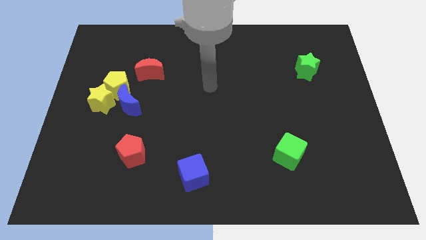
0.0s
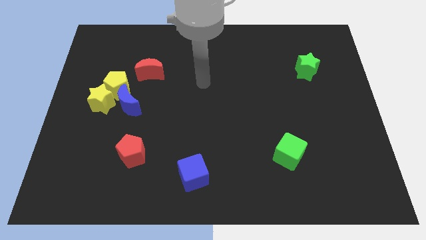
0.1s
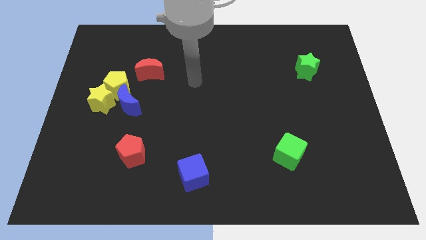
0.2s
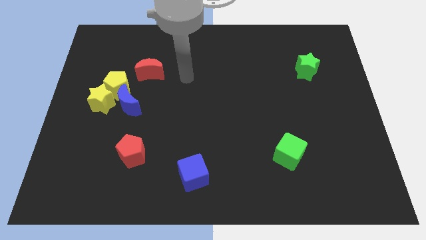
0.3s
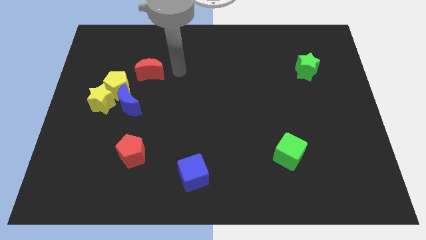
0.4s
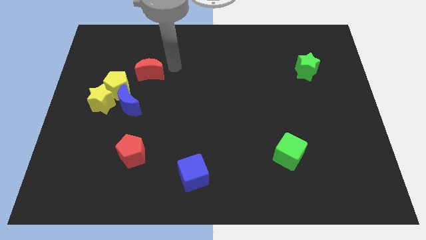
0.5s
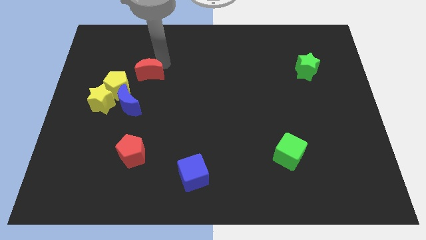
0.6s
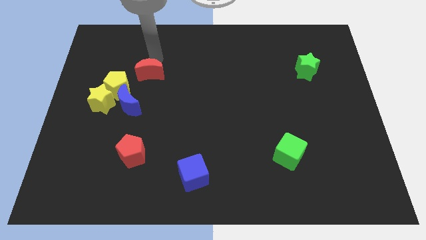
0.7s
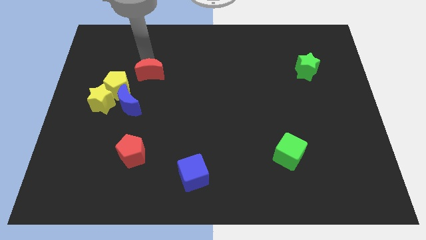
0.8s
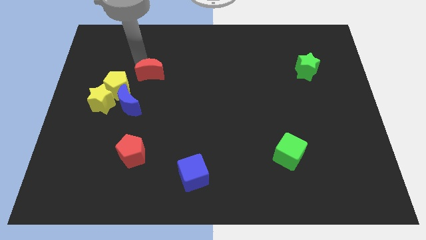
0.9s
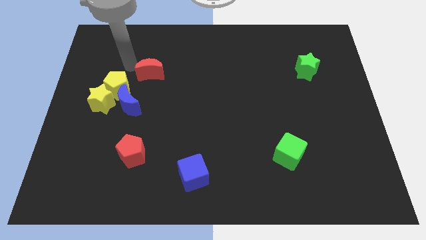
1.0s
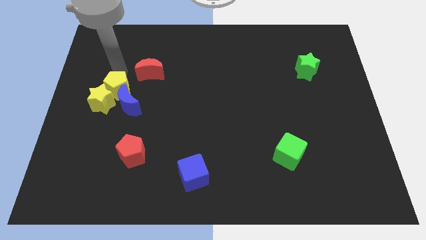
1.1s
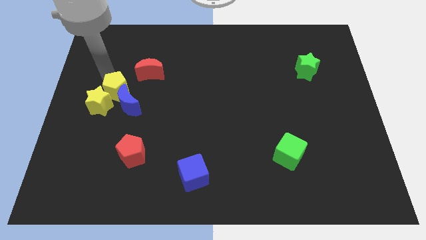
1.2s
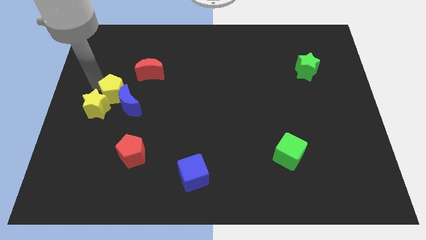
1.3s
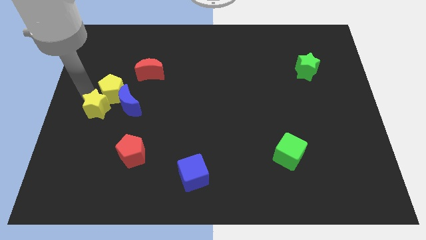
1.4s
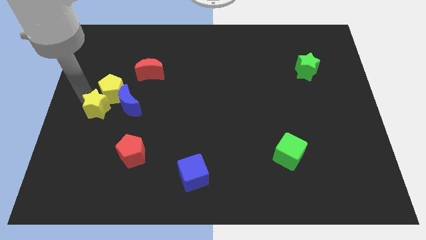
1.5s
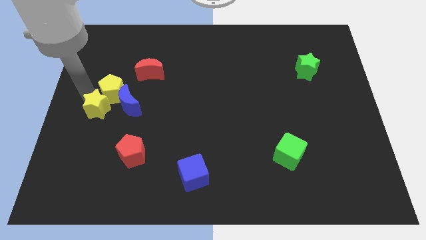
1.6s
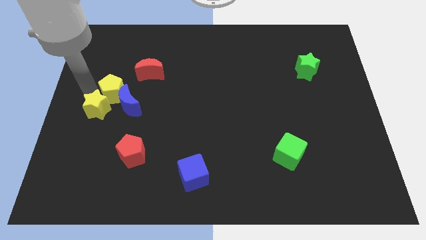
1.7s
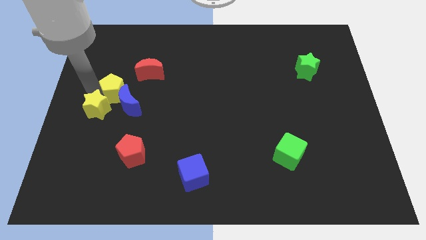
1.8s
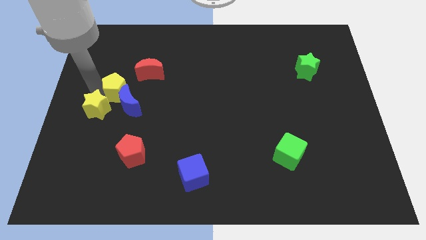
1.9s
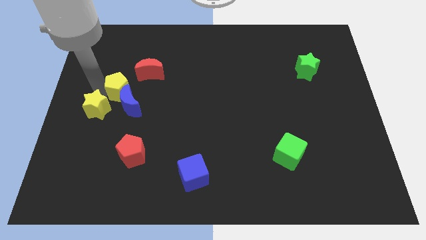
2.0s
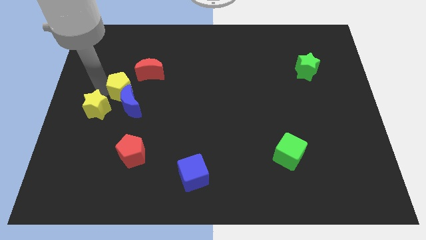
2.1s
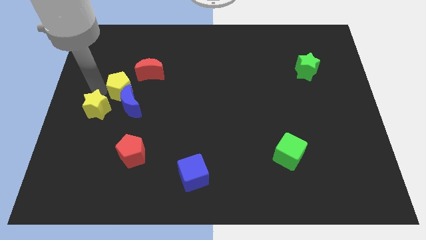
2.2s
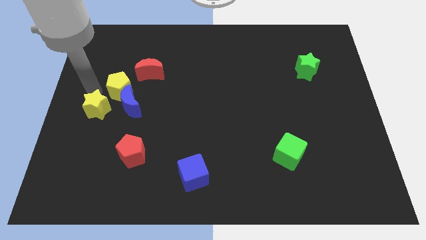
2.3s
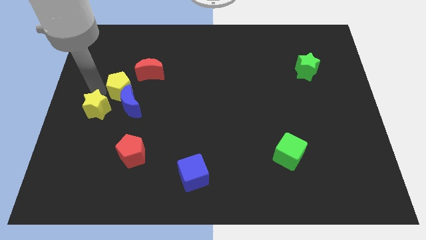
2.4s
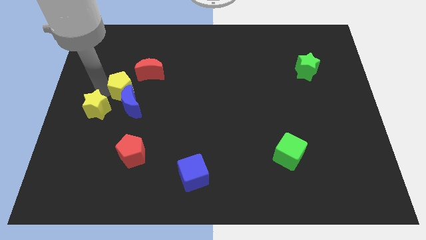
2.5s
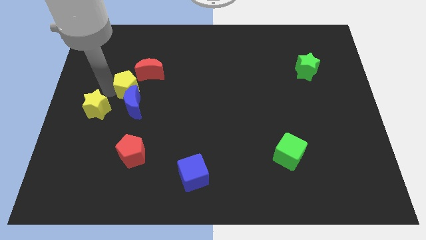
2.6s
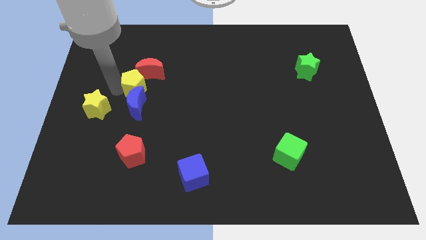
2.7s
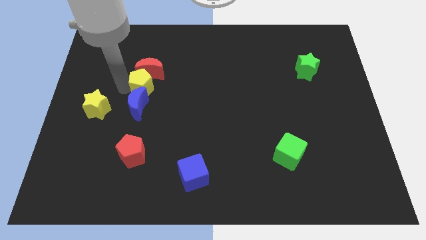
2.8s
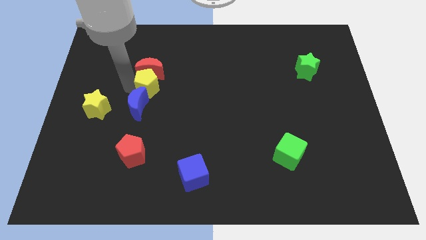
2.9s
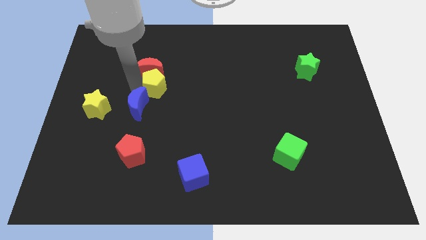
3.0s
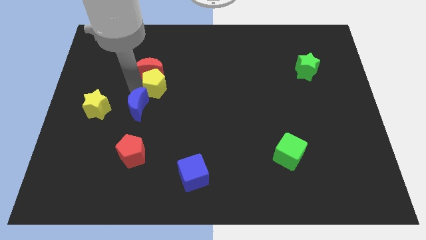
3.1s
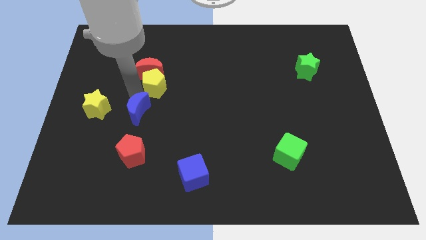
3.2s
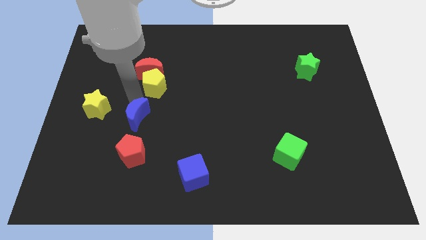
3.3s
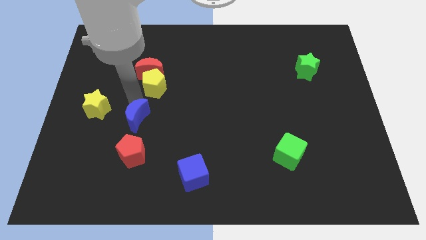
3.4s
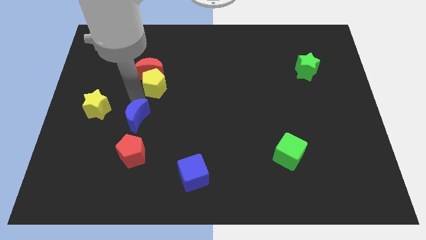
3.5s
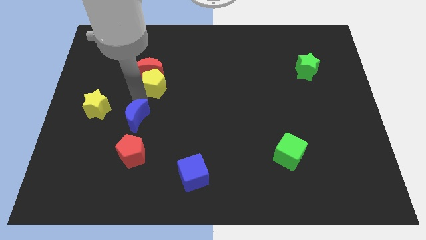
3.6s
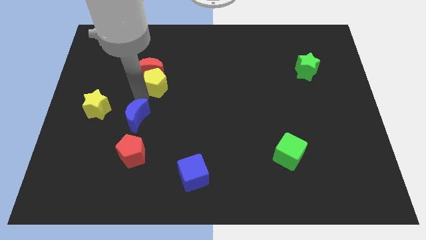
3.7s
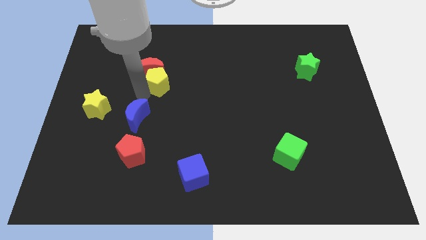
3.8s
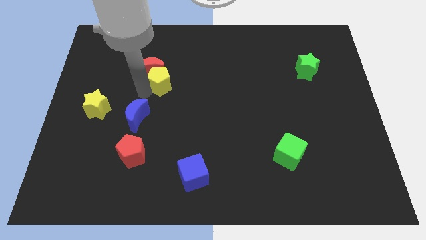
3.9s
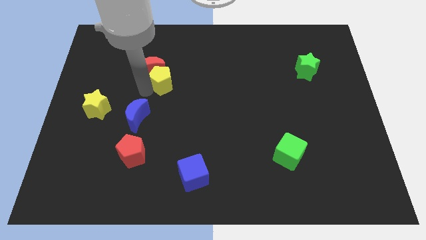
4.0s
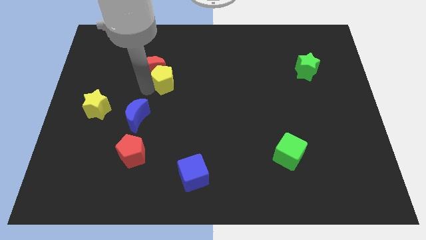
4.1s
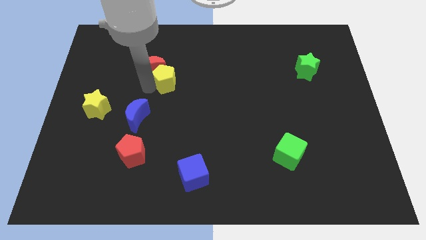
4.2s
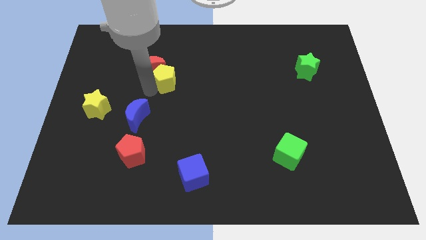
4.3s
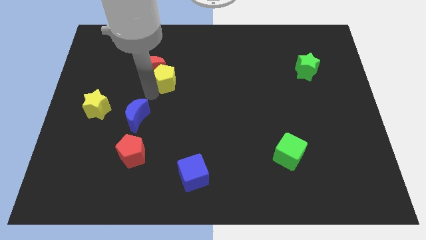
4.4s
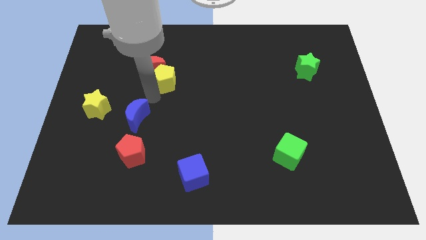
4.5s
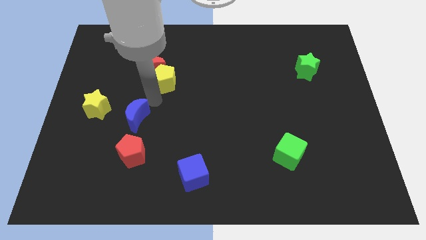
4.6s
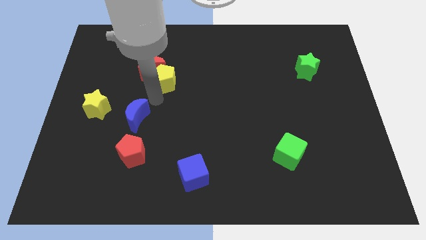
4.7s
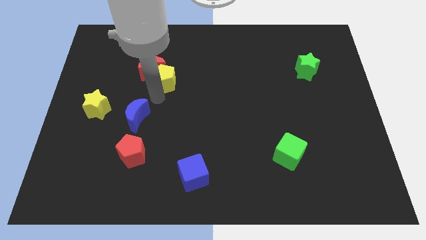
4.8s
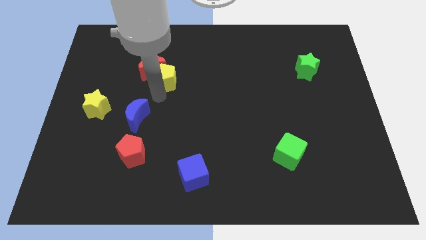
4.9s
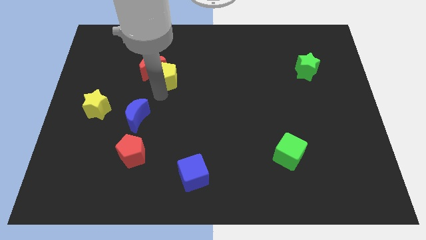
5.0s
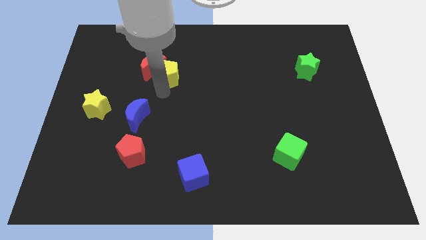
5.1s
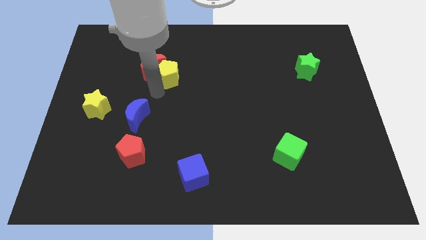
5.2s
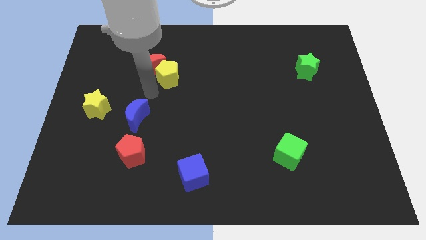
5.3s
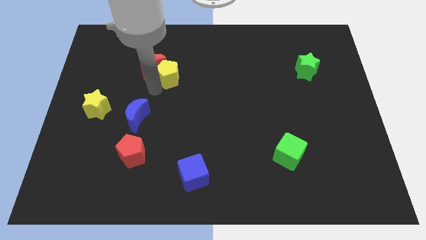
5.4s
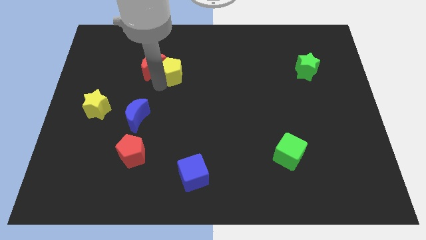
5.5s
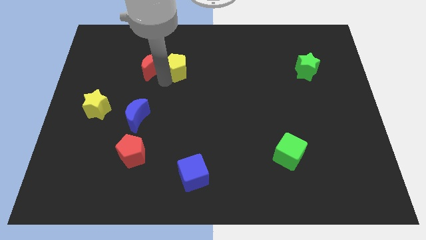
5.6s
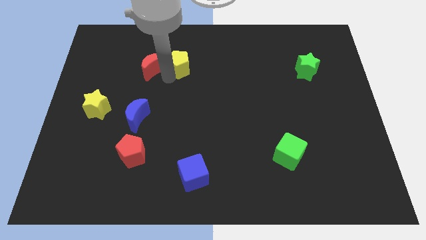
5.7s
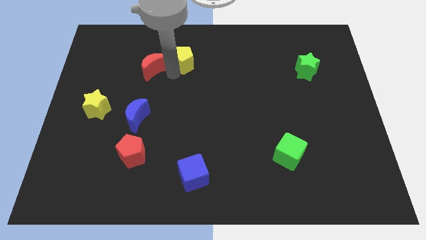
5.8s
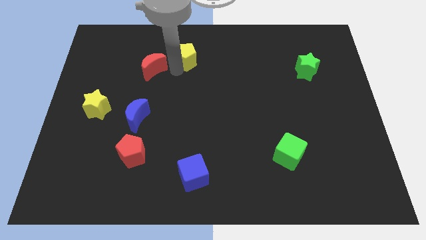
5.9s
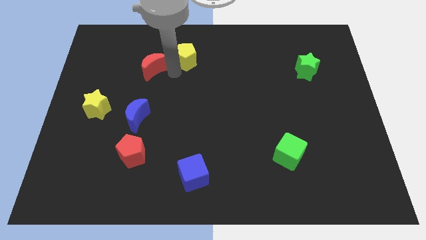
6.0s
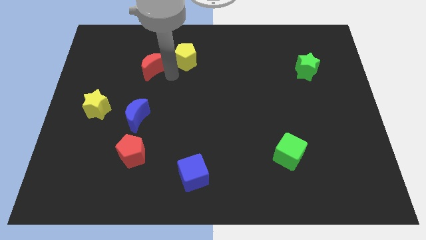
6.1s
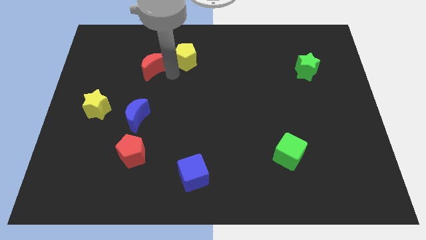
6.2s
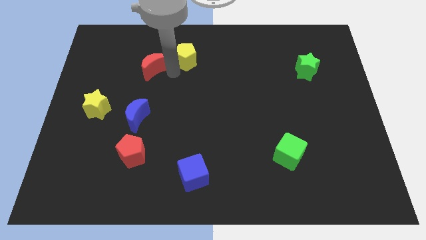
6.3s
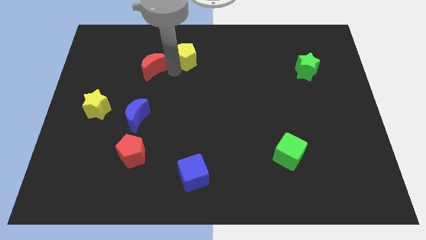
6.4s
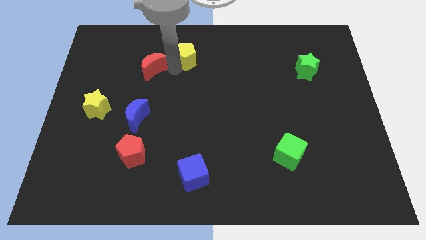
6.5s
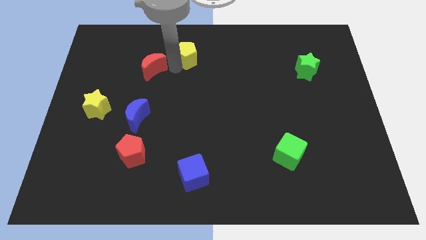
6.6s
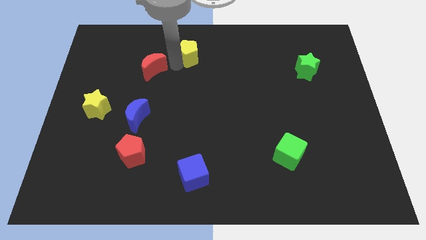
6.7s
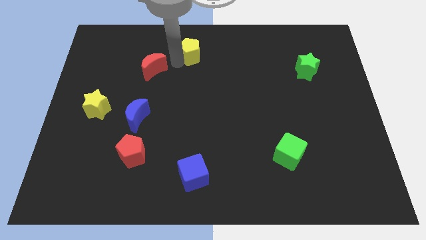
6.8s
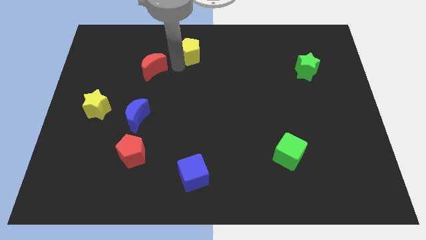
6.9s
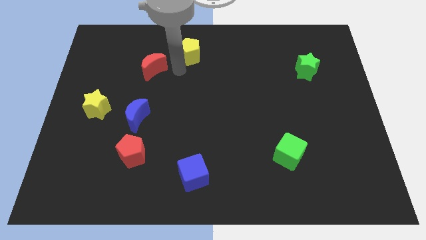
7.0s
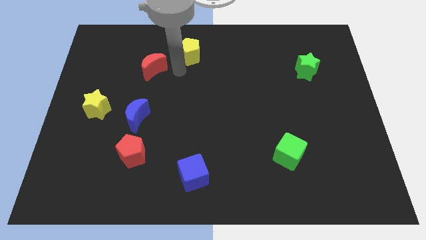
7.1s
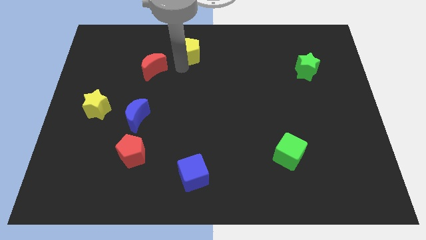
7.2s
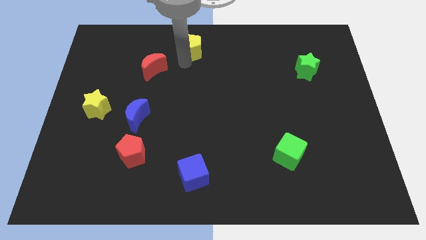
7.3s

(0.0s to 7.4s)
slide the yellow pentagon to the top
